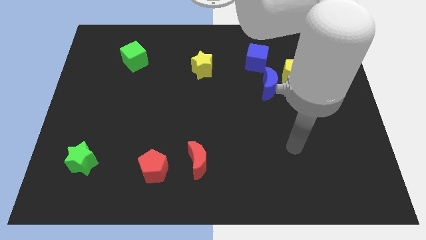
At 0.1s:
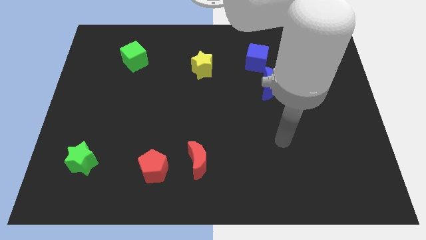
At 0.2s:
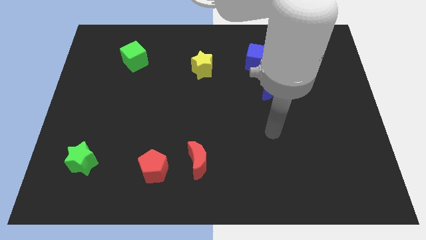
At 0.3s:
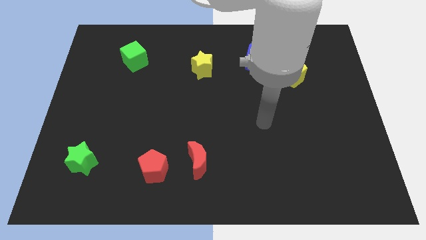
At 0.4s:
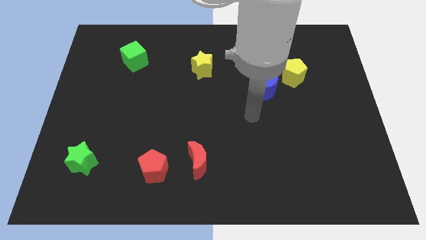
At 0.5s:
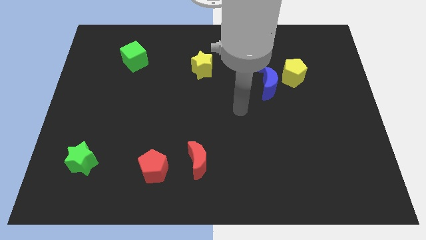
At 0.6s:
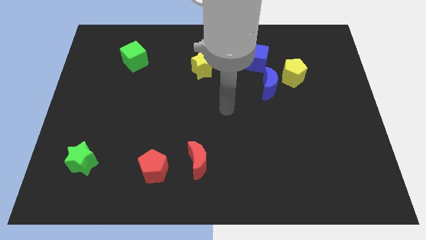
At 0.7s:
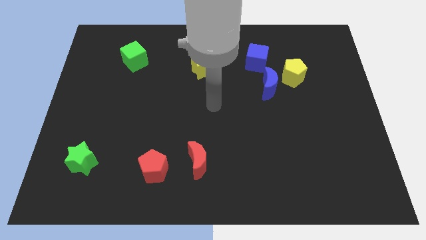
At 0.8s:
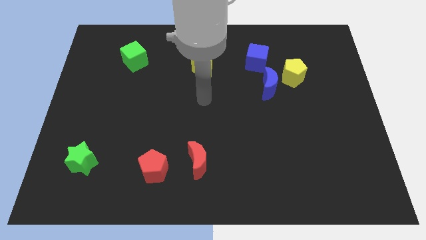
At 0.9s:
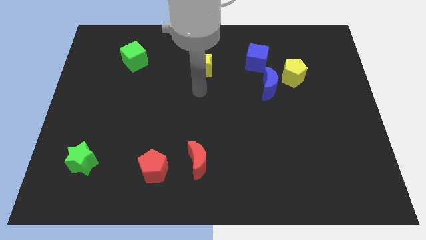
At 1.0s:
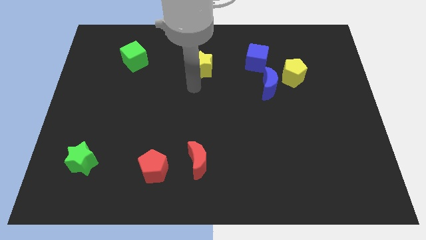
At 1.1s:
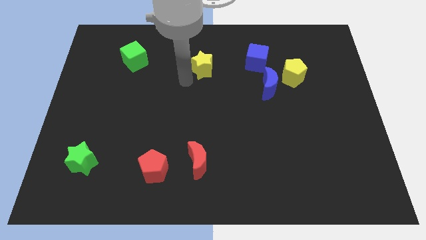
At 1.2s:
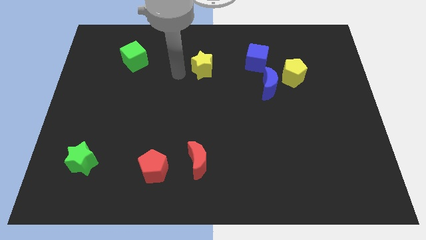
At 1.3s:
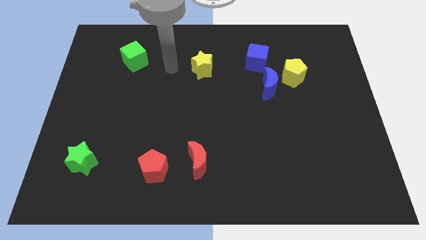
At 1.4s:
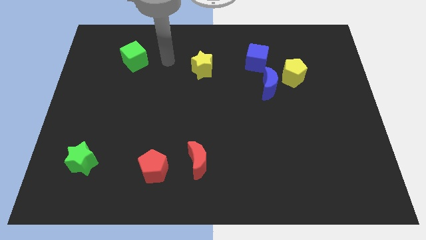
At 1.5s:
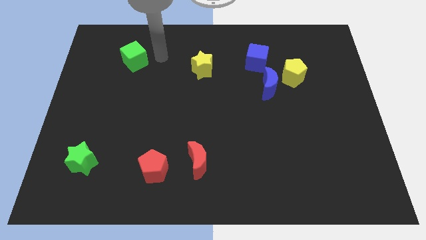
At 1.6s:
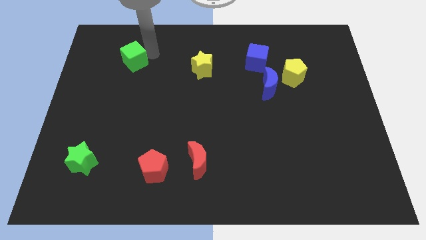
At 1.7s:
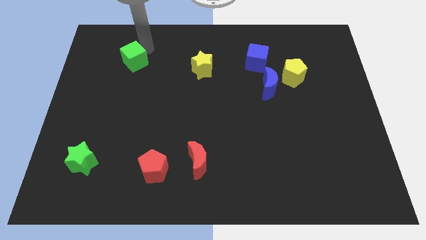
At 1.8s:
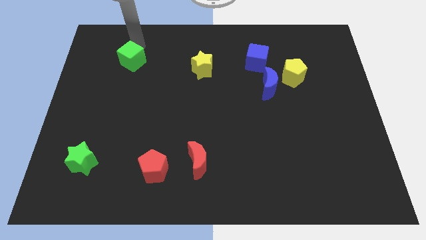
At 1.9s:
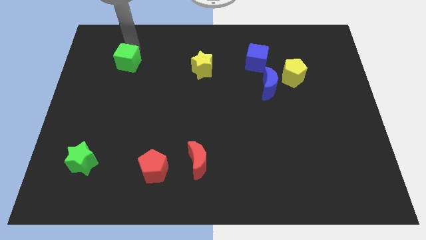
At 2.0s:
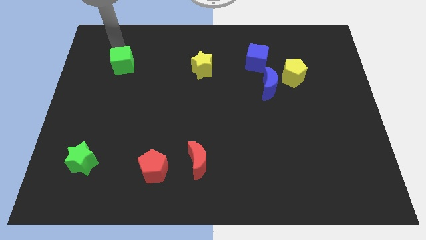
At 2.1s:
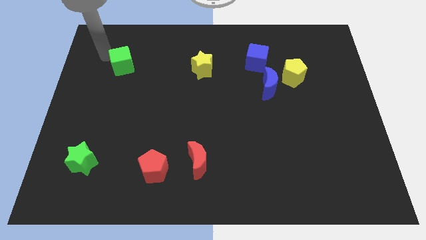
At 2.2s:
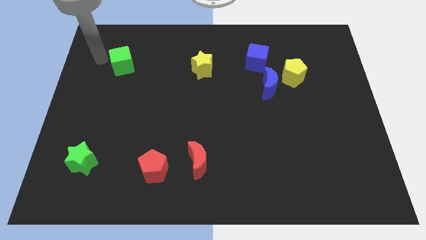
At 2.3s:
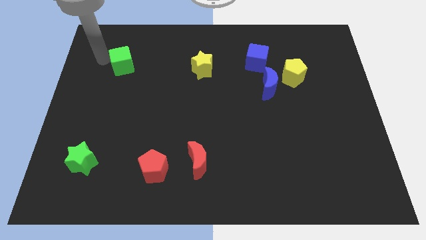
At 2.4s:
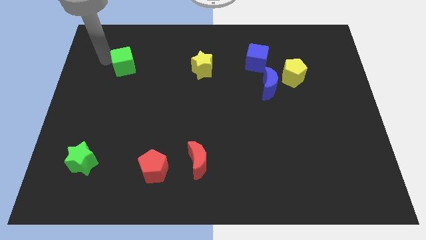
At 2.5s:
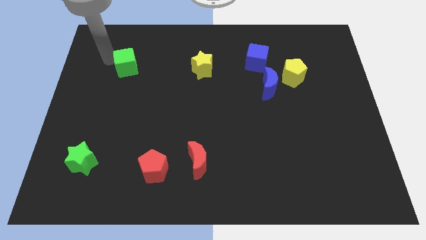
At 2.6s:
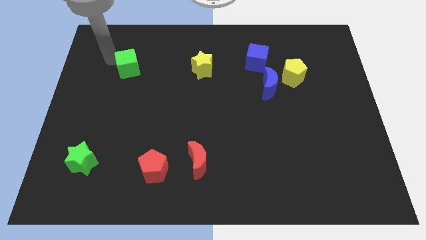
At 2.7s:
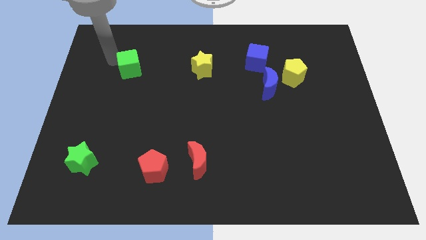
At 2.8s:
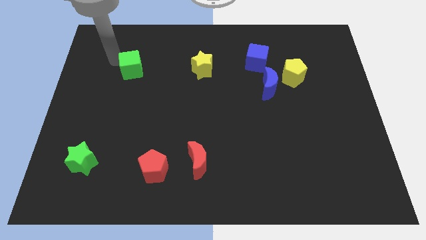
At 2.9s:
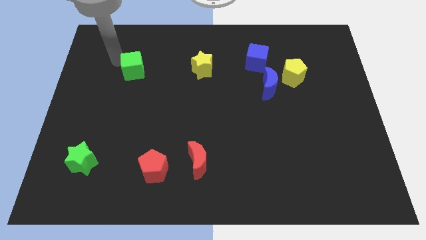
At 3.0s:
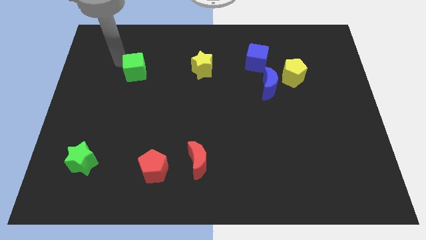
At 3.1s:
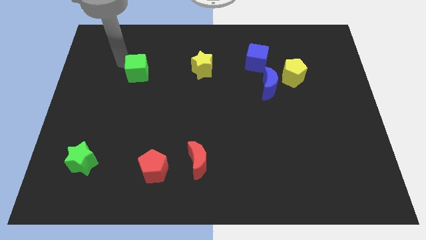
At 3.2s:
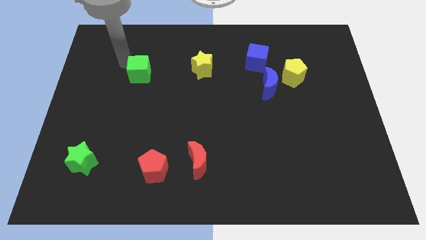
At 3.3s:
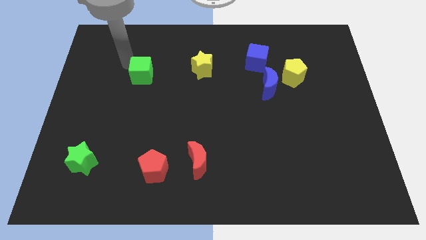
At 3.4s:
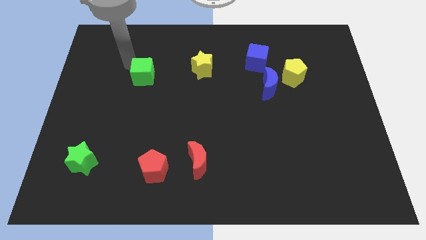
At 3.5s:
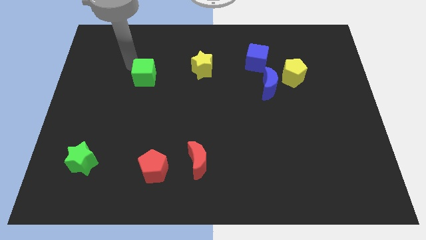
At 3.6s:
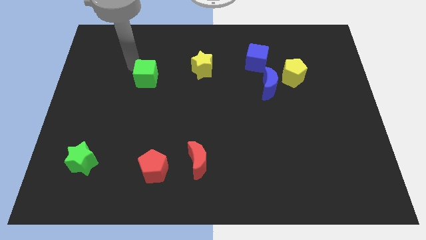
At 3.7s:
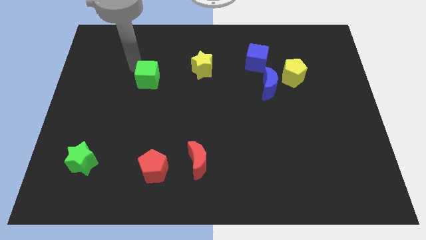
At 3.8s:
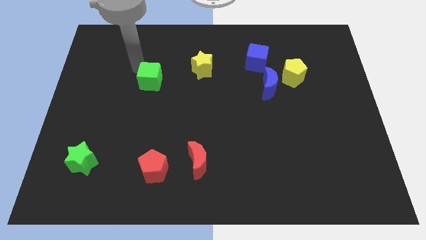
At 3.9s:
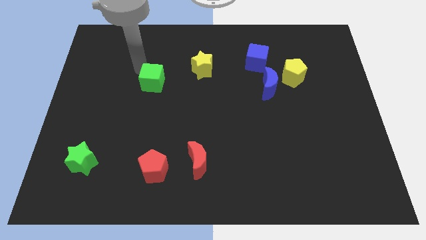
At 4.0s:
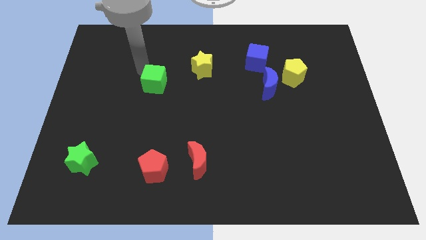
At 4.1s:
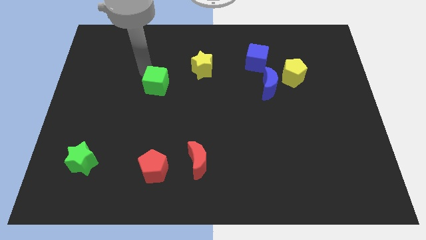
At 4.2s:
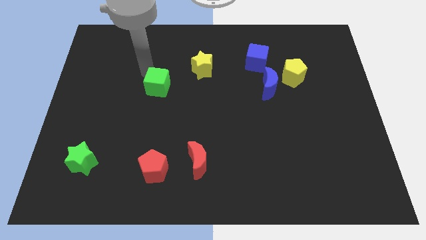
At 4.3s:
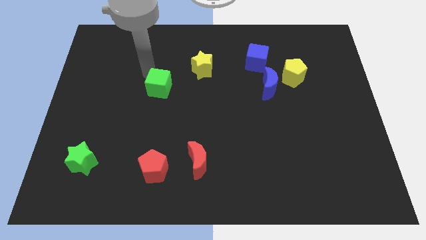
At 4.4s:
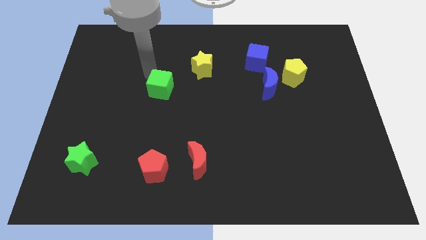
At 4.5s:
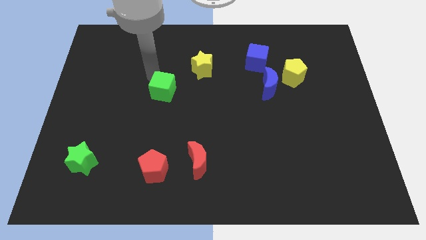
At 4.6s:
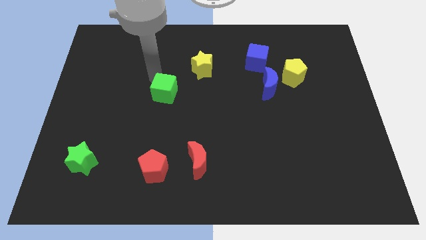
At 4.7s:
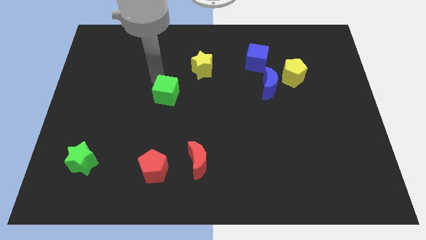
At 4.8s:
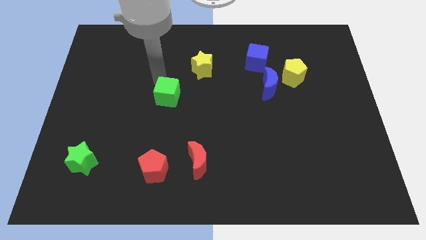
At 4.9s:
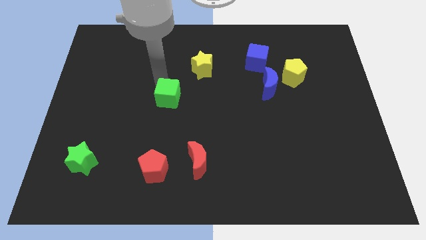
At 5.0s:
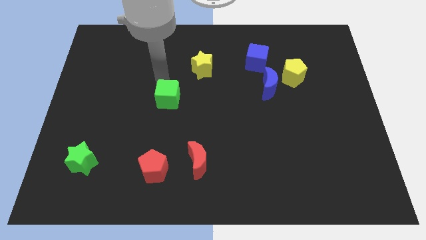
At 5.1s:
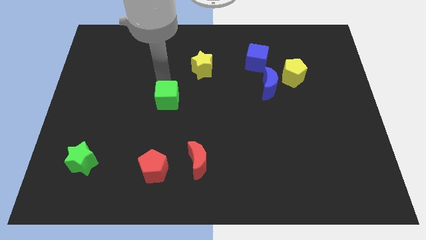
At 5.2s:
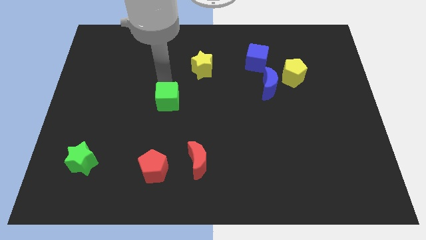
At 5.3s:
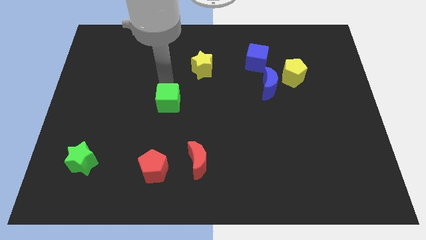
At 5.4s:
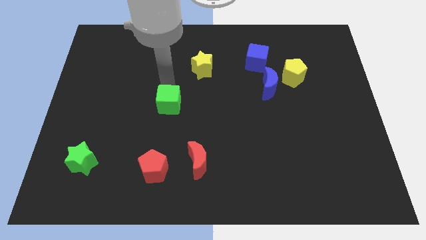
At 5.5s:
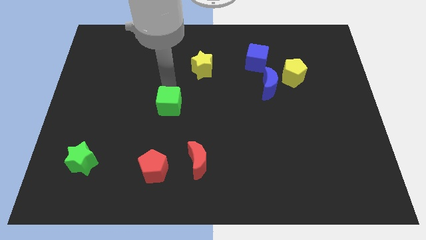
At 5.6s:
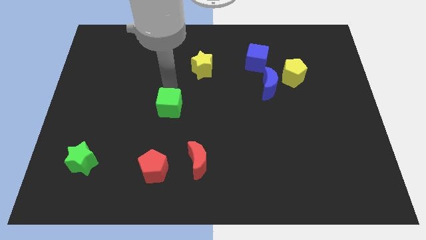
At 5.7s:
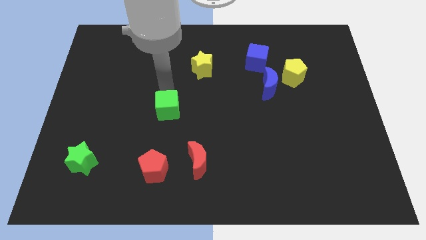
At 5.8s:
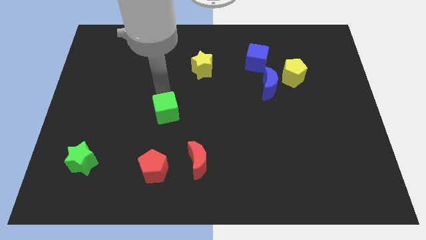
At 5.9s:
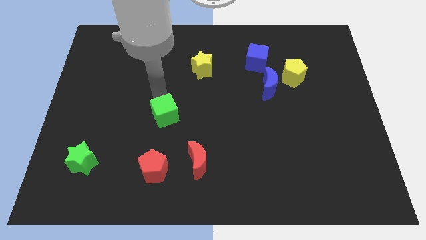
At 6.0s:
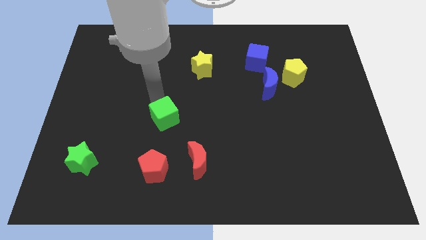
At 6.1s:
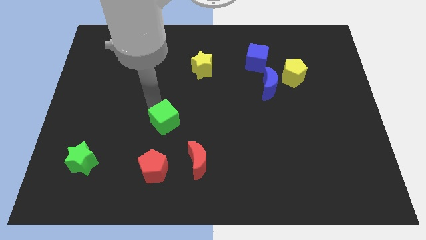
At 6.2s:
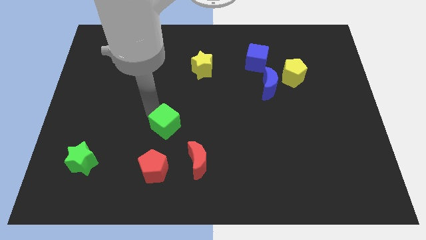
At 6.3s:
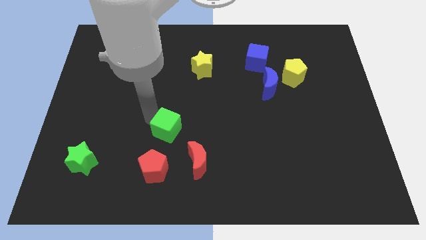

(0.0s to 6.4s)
push the green cube downwards and then to the right

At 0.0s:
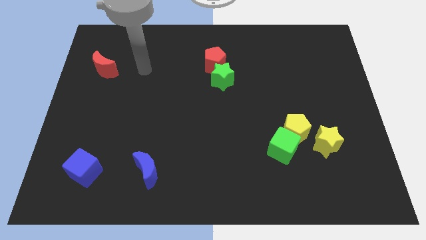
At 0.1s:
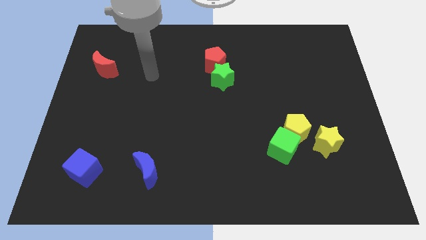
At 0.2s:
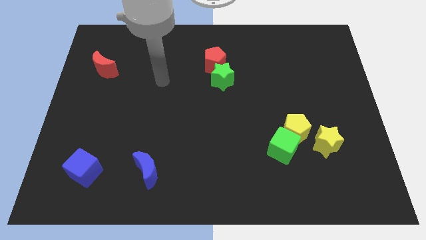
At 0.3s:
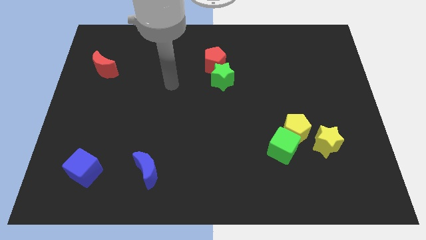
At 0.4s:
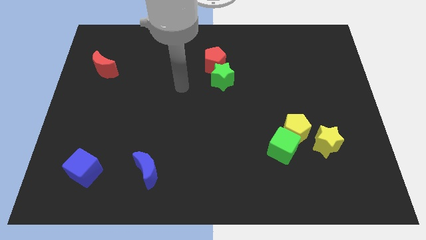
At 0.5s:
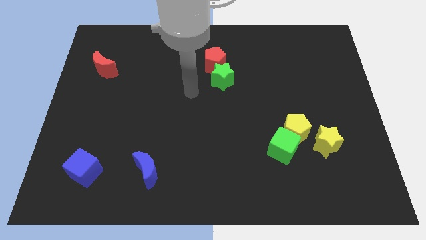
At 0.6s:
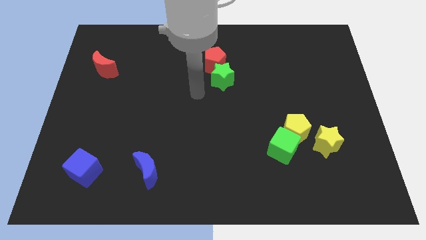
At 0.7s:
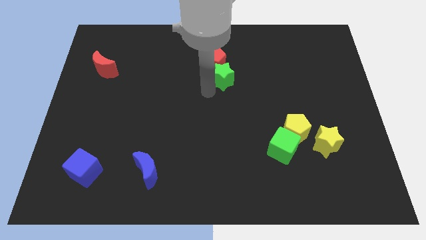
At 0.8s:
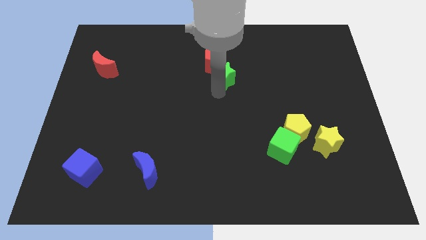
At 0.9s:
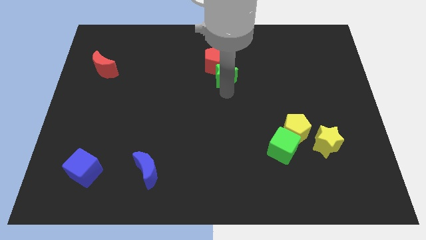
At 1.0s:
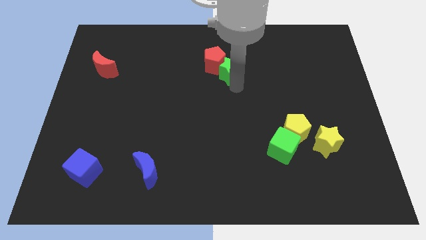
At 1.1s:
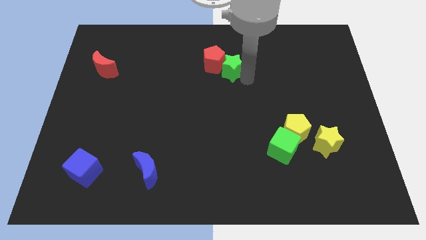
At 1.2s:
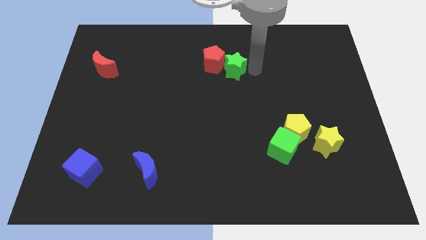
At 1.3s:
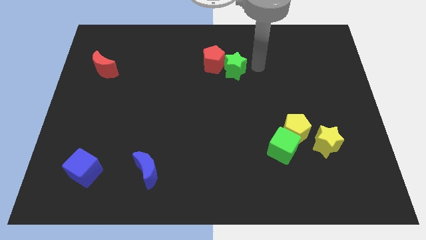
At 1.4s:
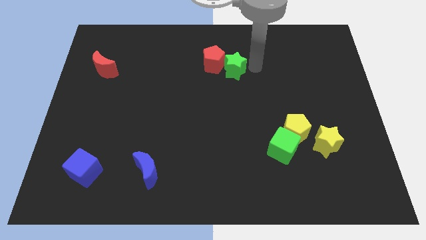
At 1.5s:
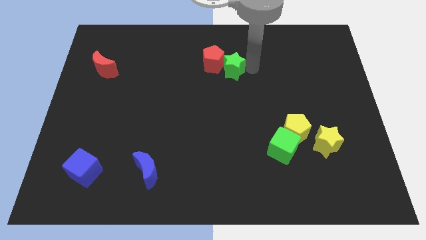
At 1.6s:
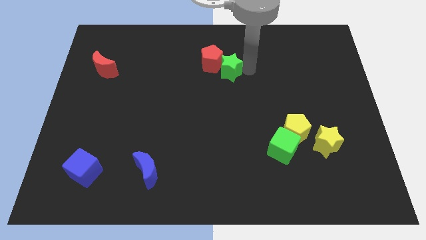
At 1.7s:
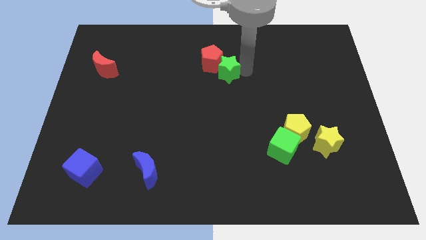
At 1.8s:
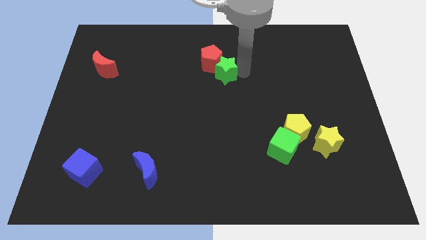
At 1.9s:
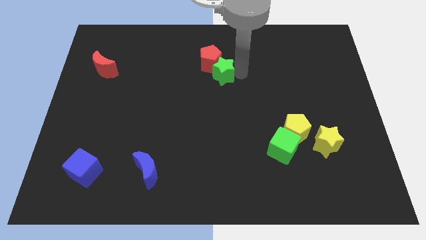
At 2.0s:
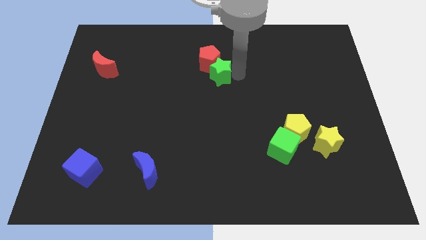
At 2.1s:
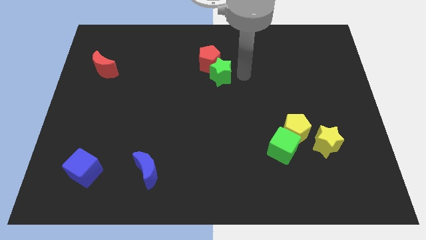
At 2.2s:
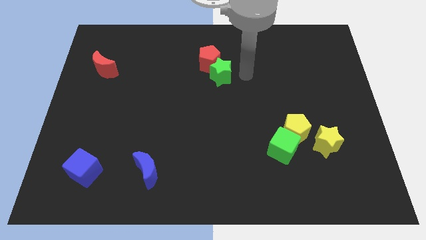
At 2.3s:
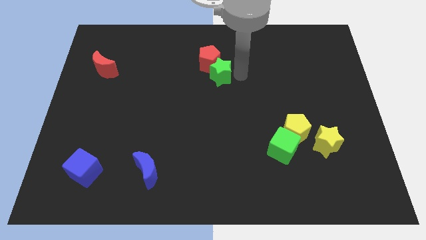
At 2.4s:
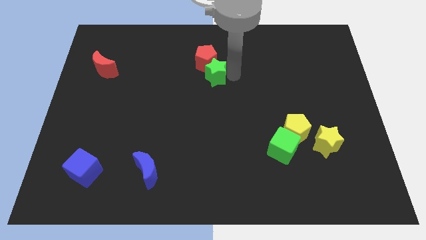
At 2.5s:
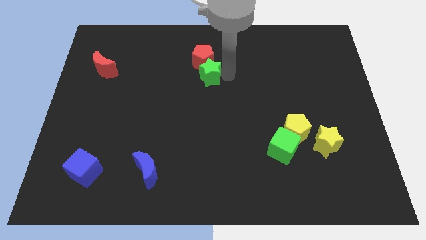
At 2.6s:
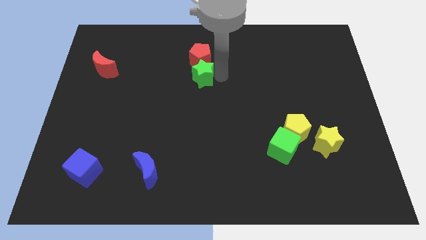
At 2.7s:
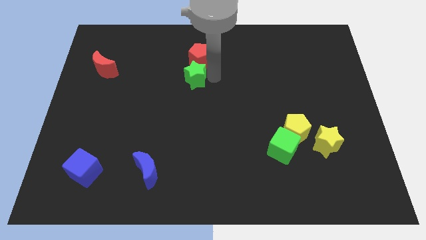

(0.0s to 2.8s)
slide the green star to the left a bit
